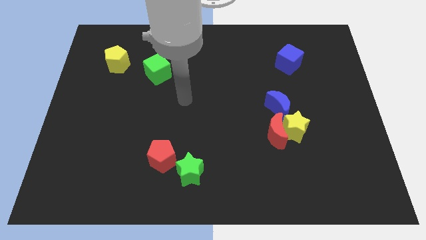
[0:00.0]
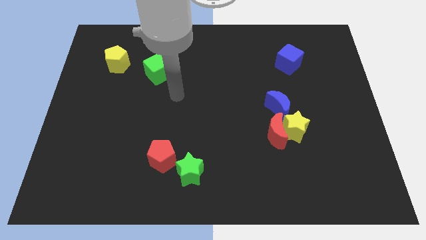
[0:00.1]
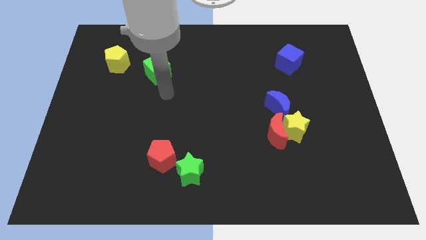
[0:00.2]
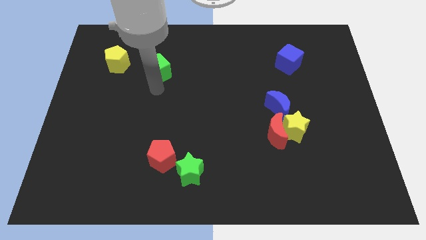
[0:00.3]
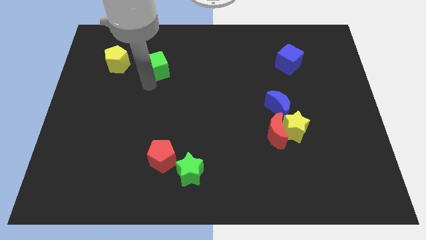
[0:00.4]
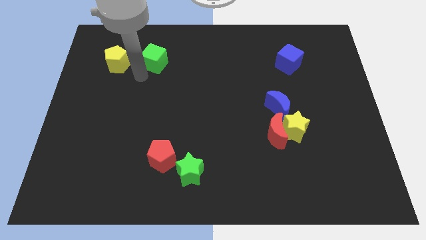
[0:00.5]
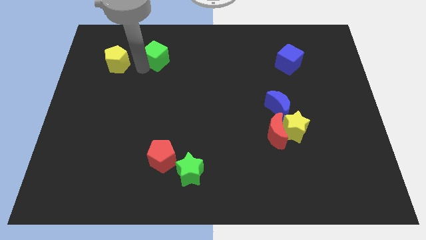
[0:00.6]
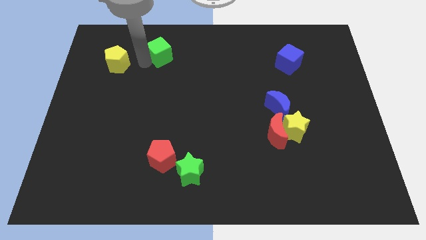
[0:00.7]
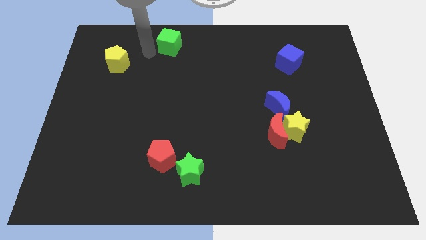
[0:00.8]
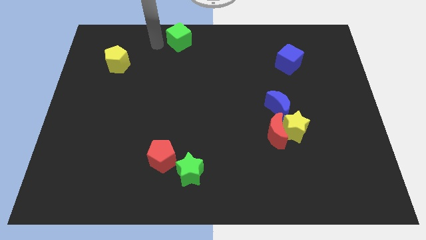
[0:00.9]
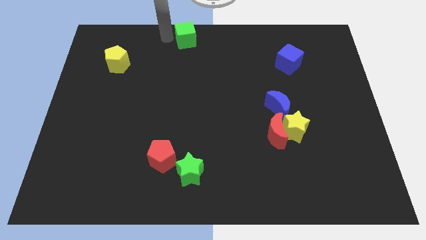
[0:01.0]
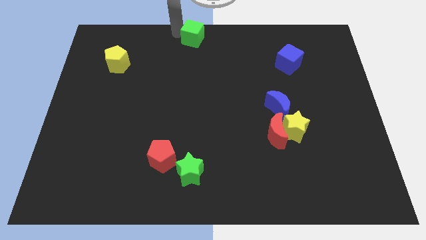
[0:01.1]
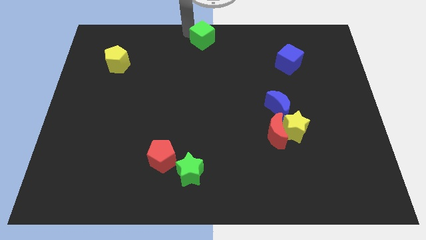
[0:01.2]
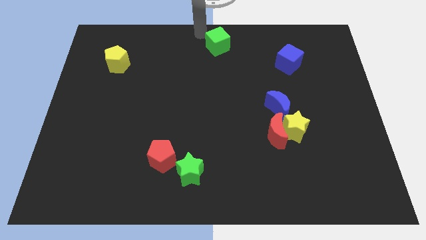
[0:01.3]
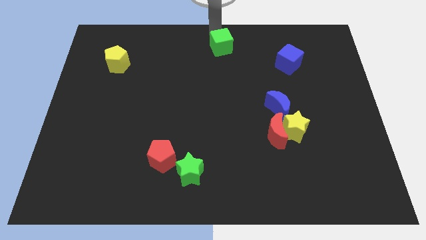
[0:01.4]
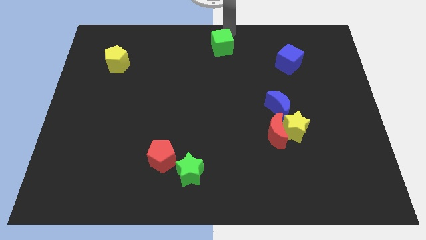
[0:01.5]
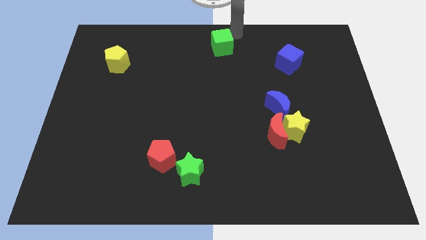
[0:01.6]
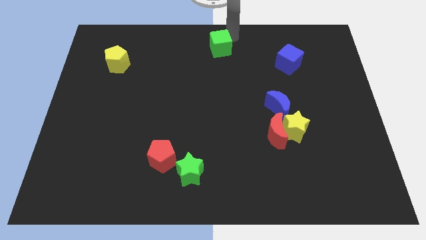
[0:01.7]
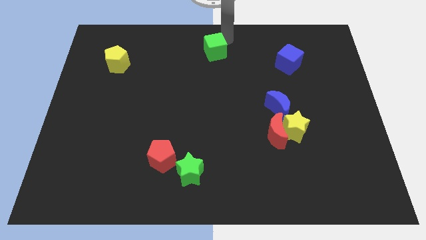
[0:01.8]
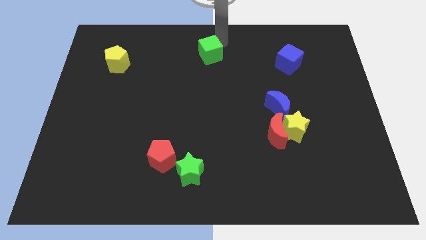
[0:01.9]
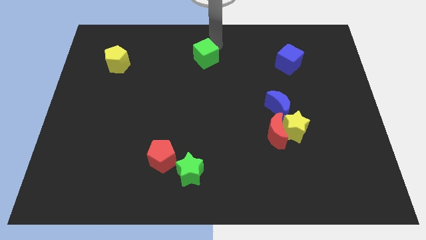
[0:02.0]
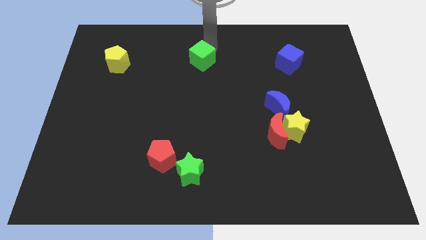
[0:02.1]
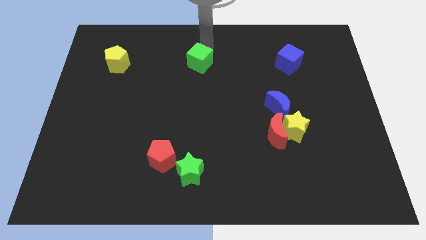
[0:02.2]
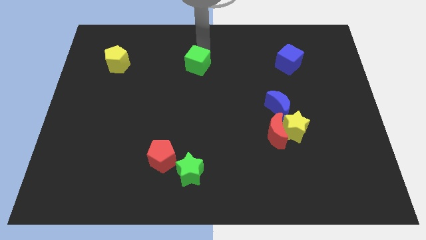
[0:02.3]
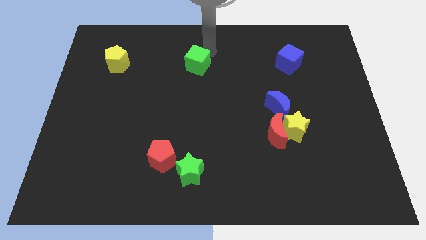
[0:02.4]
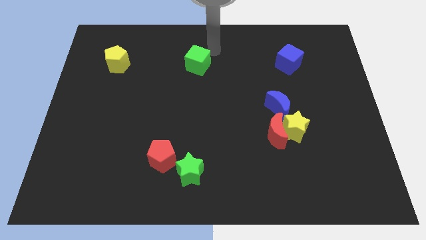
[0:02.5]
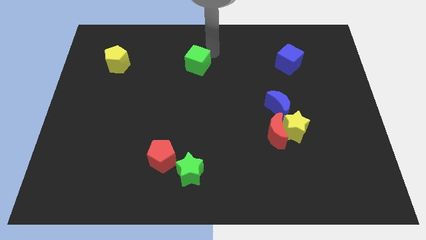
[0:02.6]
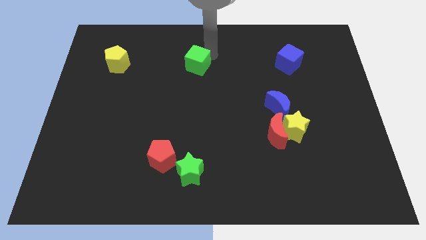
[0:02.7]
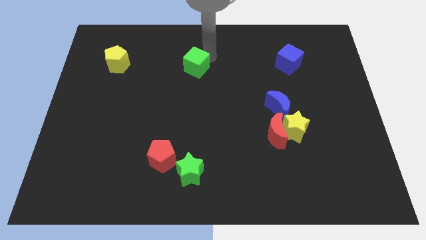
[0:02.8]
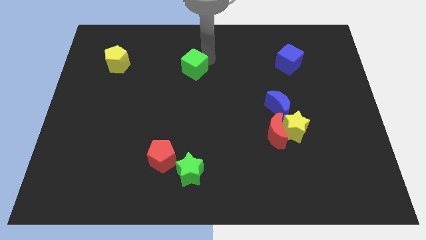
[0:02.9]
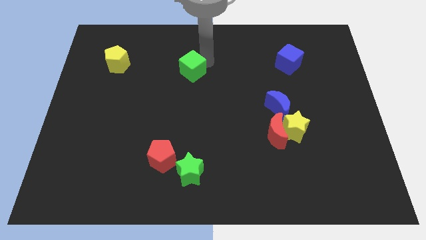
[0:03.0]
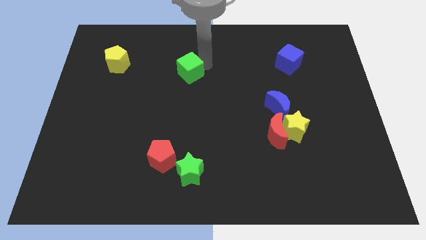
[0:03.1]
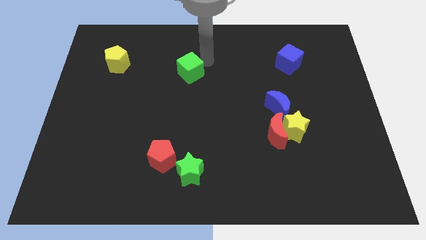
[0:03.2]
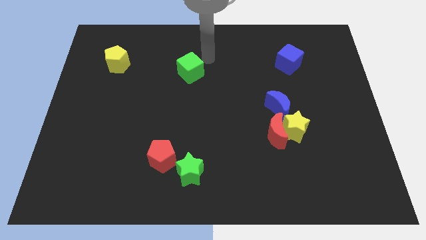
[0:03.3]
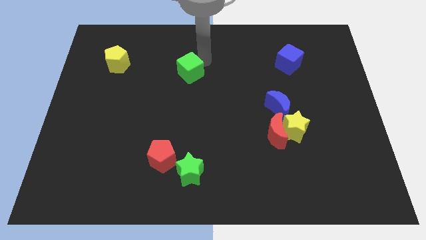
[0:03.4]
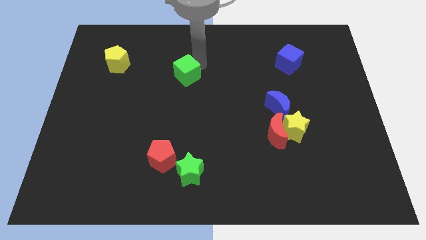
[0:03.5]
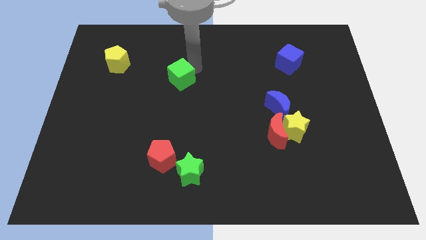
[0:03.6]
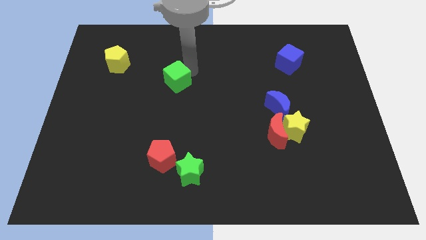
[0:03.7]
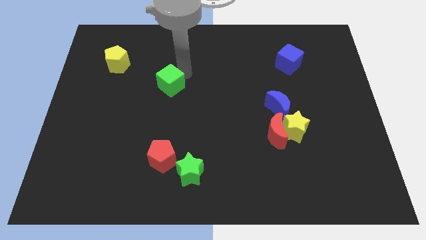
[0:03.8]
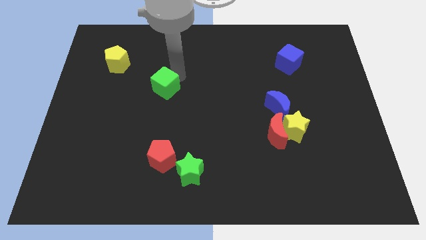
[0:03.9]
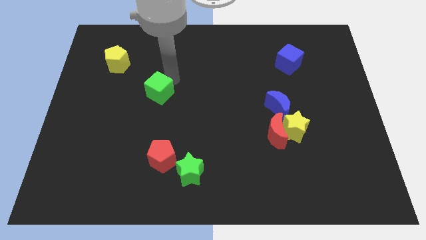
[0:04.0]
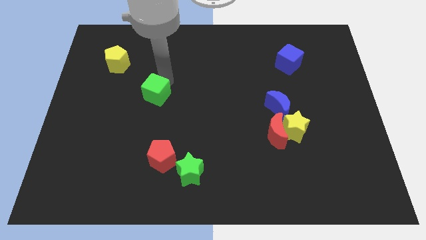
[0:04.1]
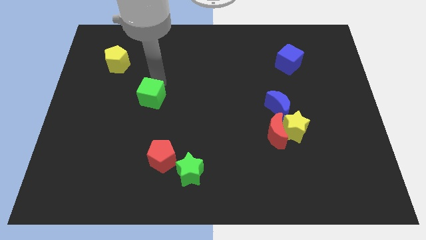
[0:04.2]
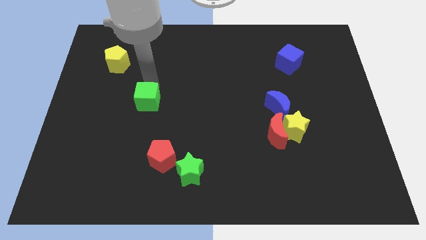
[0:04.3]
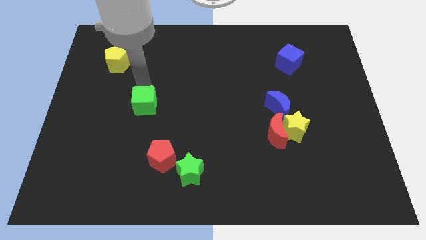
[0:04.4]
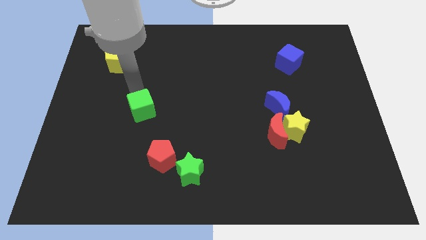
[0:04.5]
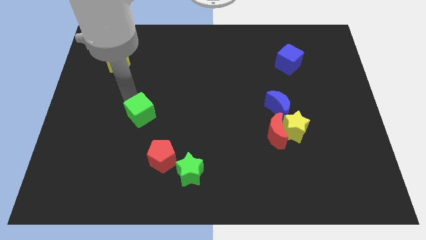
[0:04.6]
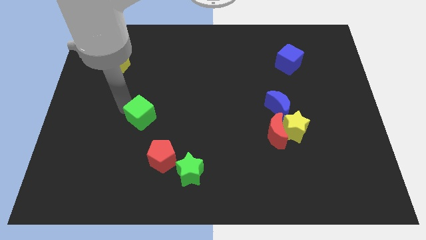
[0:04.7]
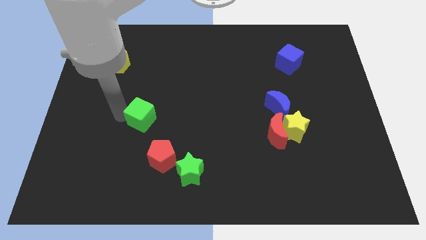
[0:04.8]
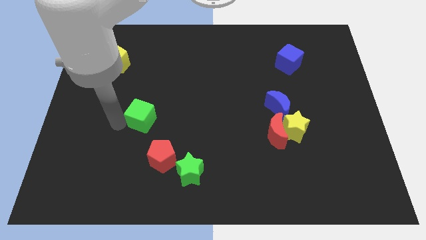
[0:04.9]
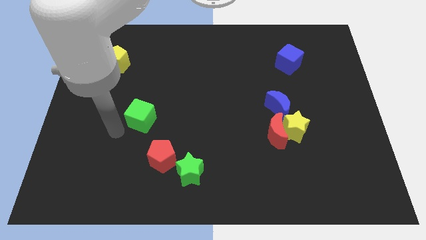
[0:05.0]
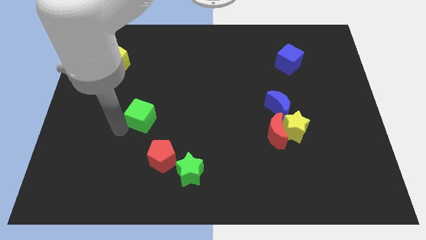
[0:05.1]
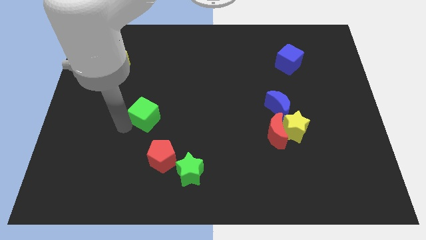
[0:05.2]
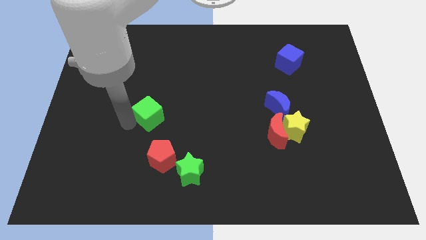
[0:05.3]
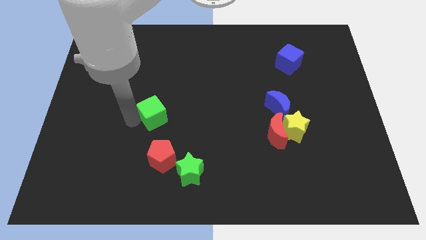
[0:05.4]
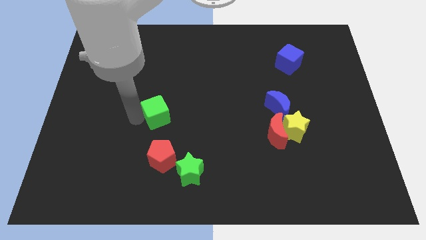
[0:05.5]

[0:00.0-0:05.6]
slide the green cube a bit diagonally downwards and right

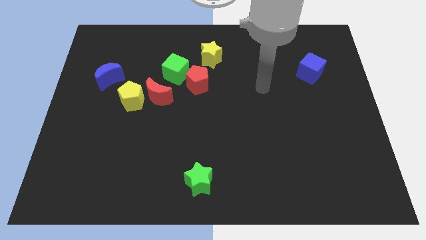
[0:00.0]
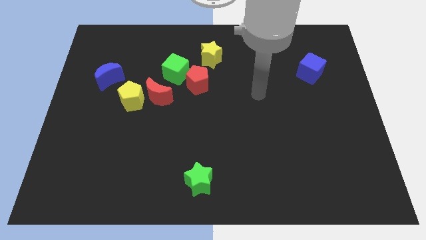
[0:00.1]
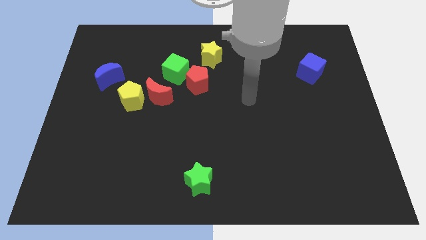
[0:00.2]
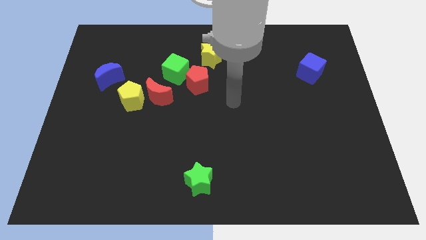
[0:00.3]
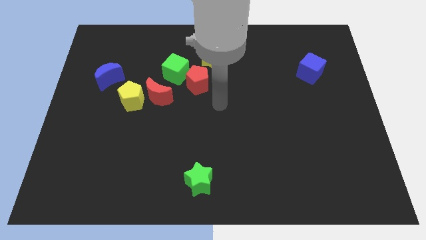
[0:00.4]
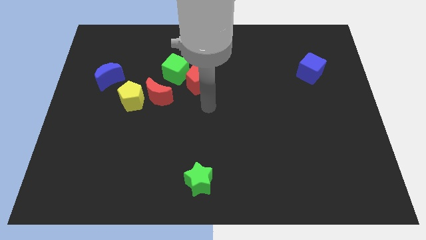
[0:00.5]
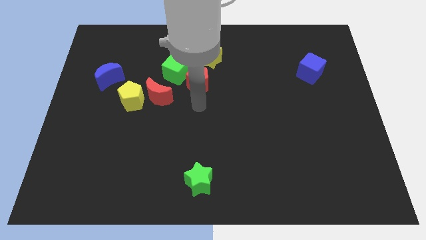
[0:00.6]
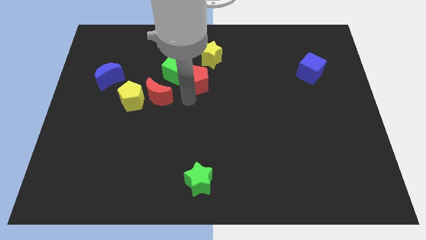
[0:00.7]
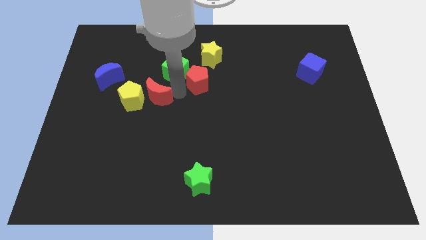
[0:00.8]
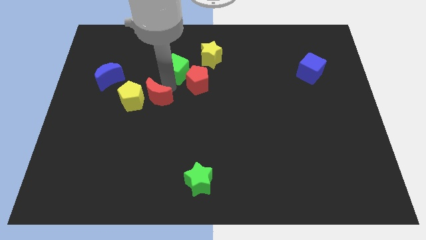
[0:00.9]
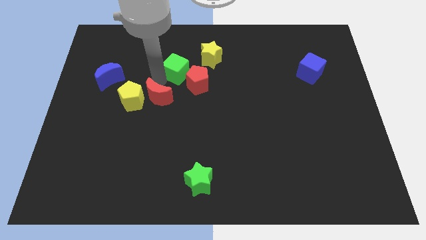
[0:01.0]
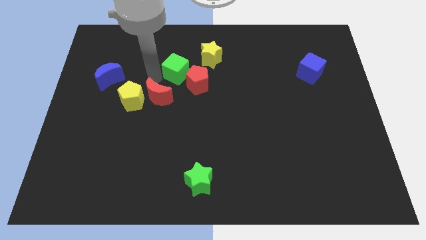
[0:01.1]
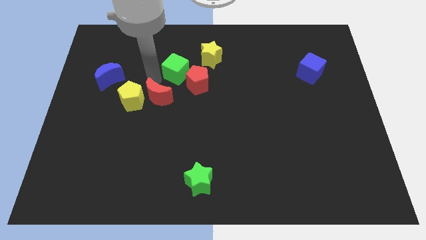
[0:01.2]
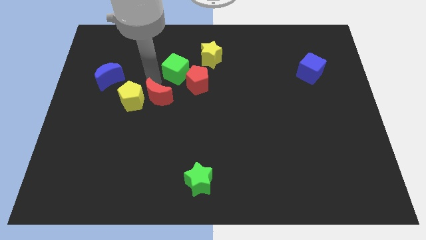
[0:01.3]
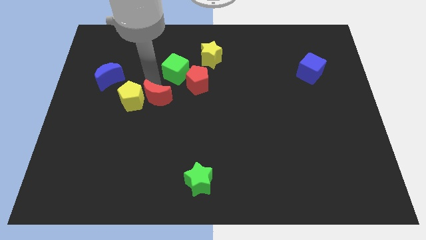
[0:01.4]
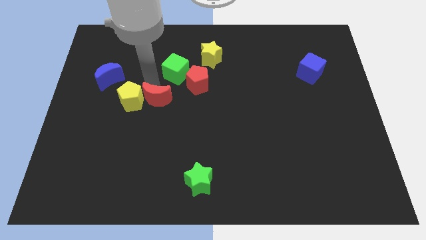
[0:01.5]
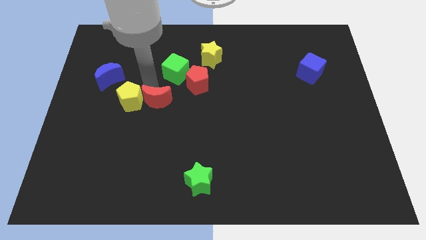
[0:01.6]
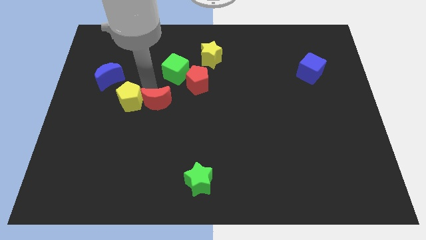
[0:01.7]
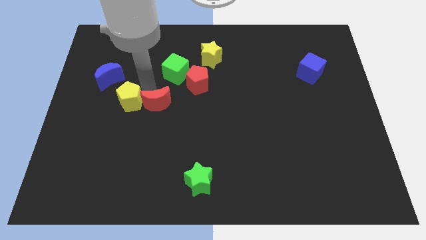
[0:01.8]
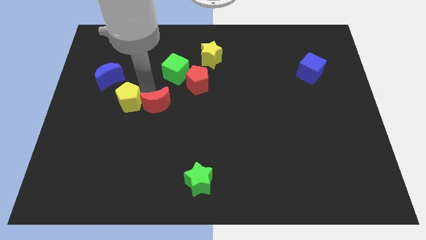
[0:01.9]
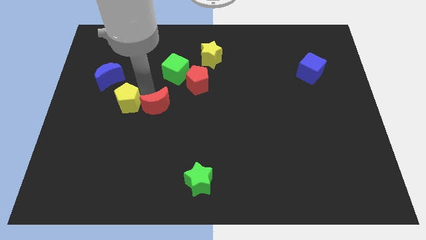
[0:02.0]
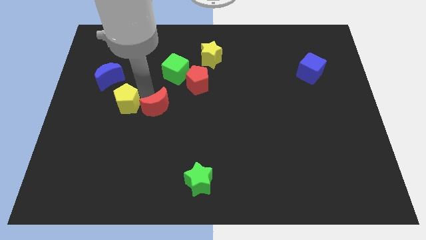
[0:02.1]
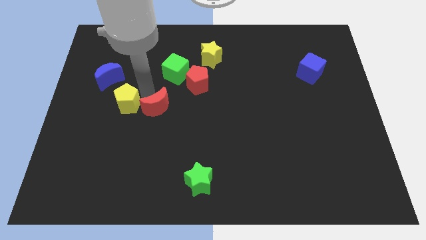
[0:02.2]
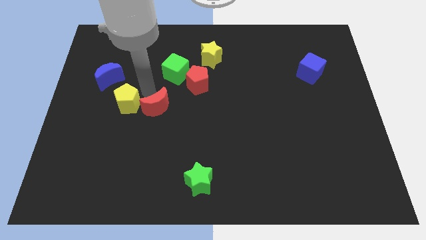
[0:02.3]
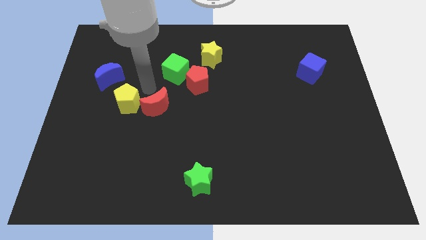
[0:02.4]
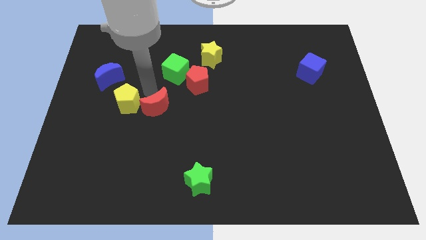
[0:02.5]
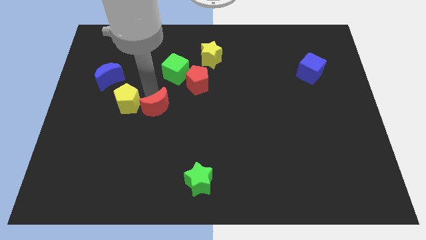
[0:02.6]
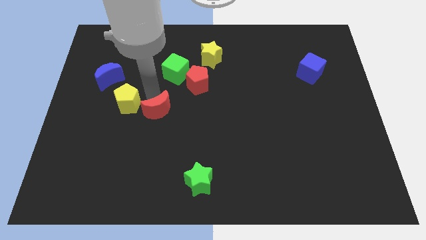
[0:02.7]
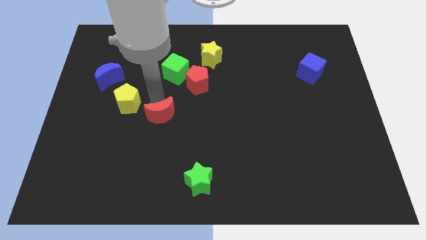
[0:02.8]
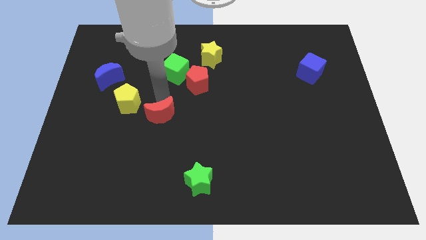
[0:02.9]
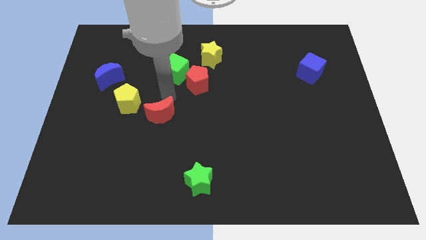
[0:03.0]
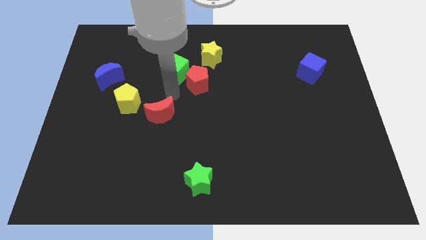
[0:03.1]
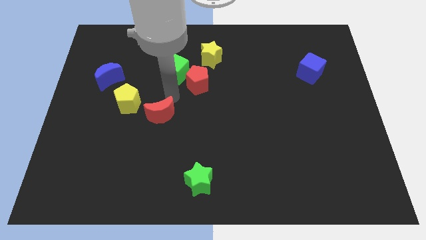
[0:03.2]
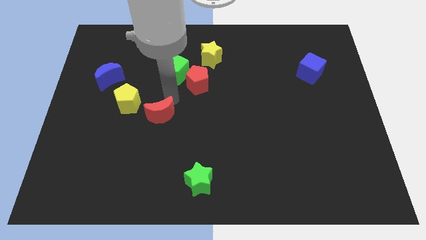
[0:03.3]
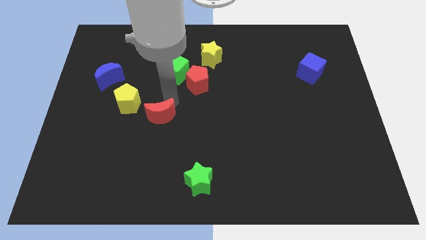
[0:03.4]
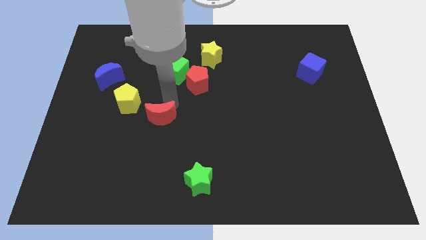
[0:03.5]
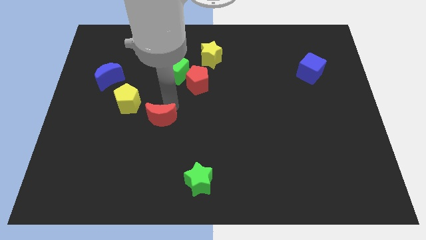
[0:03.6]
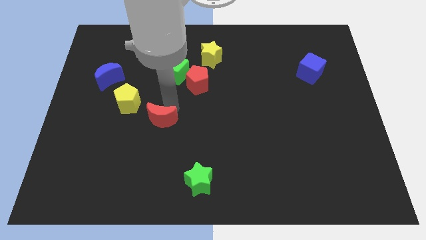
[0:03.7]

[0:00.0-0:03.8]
push the red moon somewhat downwards
